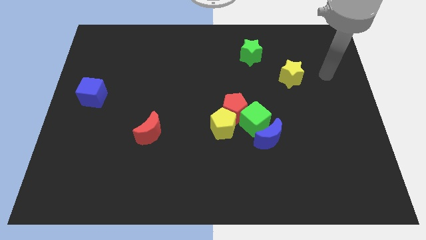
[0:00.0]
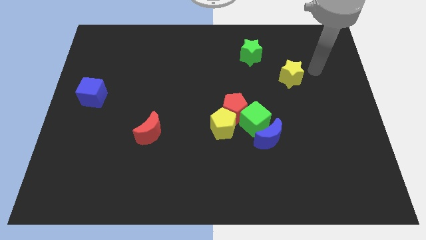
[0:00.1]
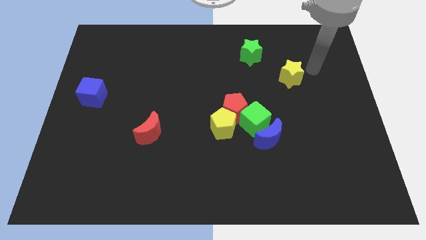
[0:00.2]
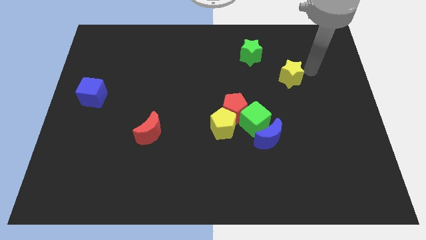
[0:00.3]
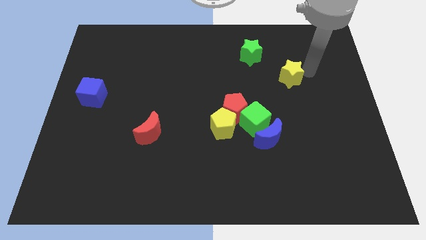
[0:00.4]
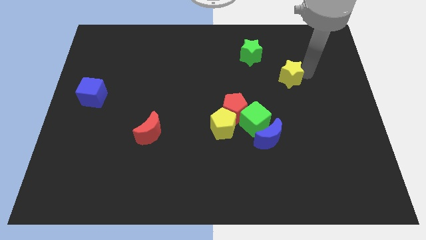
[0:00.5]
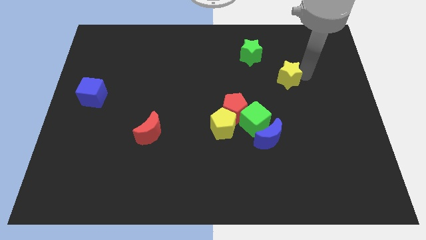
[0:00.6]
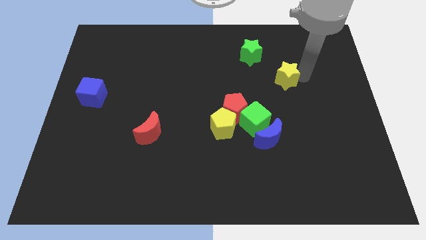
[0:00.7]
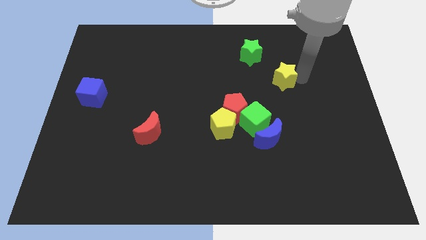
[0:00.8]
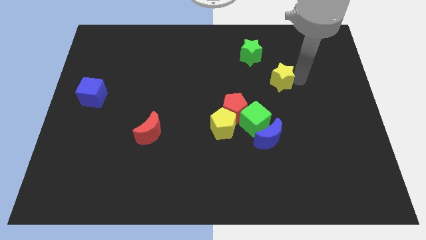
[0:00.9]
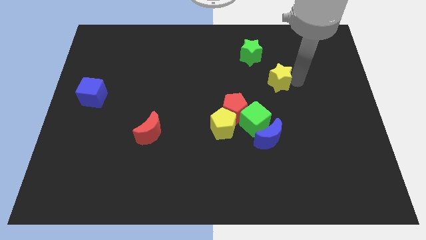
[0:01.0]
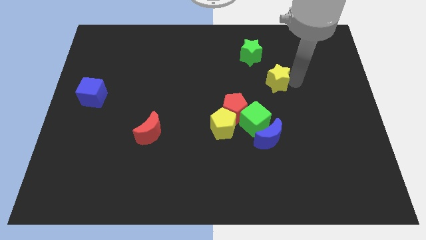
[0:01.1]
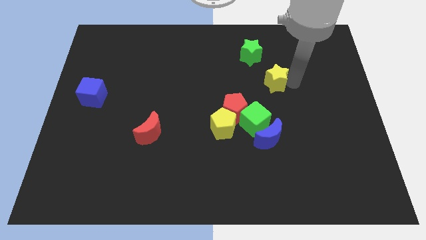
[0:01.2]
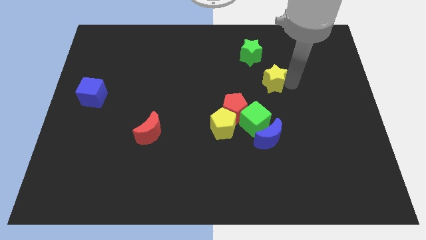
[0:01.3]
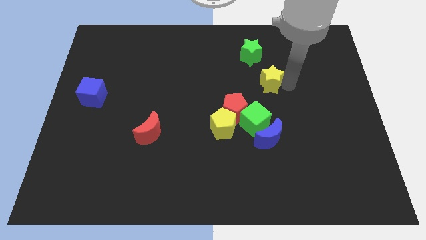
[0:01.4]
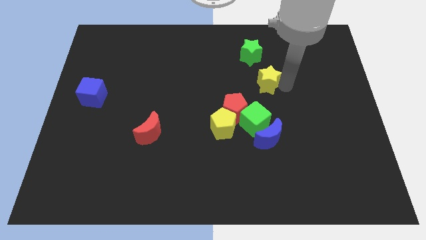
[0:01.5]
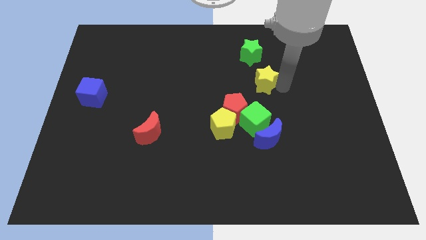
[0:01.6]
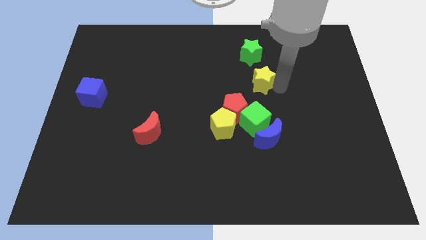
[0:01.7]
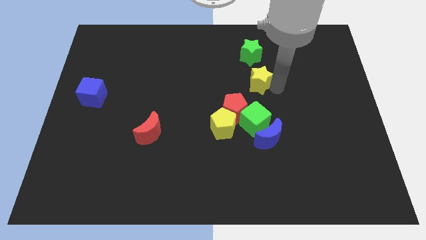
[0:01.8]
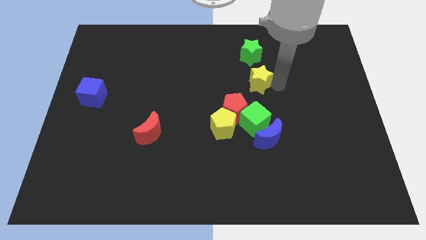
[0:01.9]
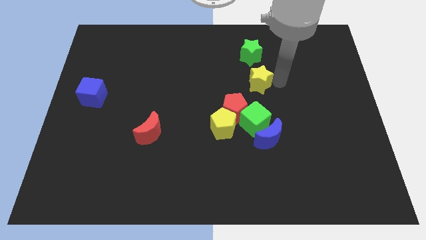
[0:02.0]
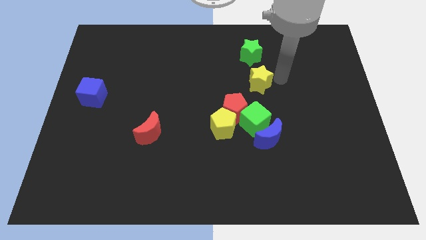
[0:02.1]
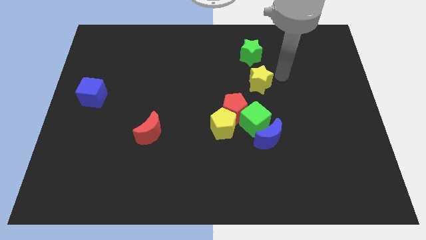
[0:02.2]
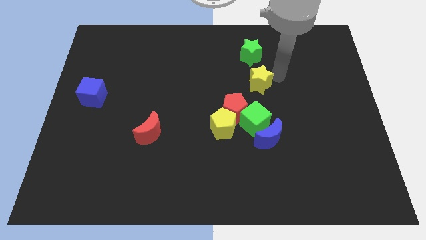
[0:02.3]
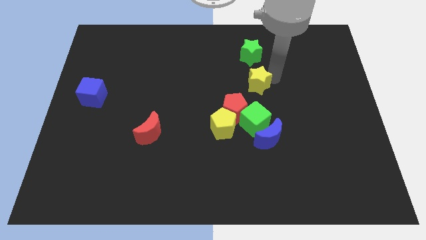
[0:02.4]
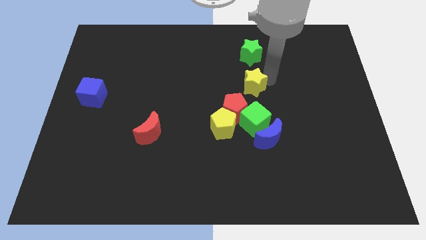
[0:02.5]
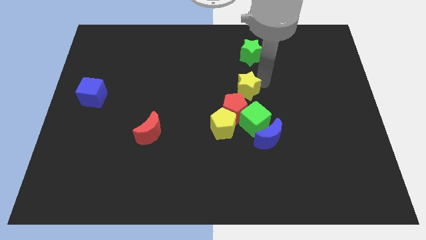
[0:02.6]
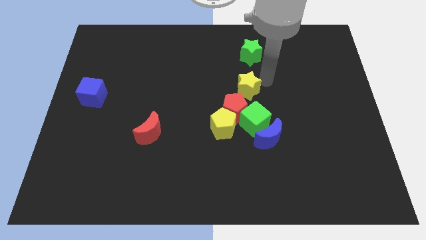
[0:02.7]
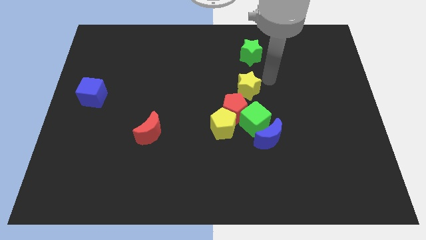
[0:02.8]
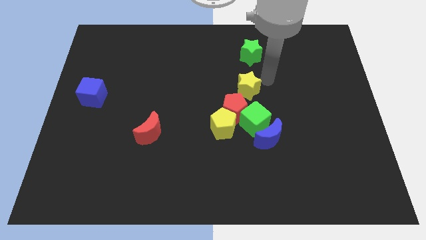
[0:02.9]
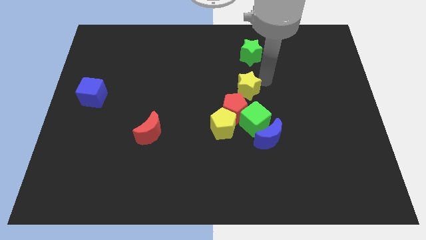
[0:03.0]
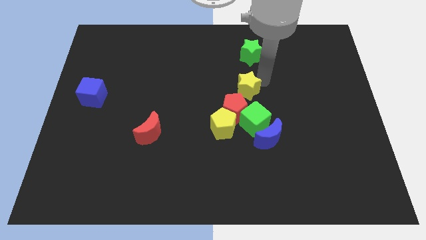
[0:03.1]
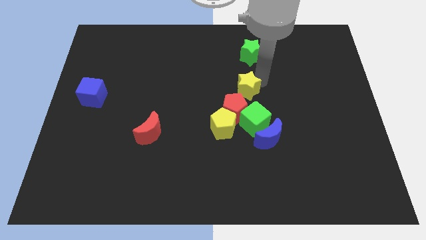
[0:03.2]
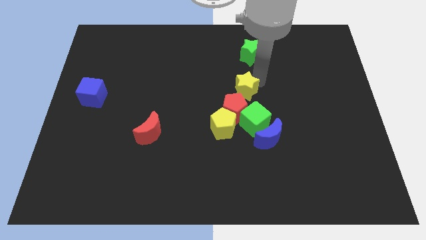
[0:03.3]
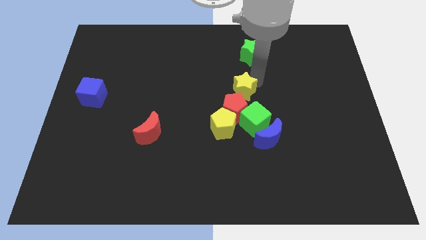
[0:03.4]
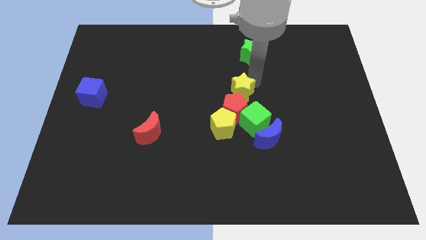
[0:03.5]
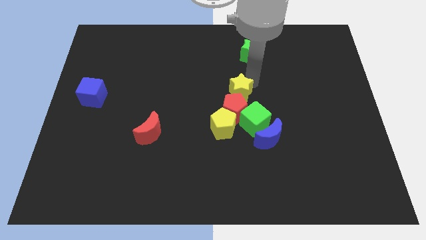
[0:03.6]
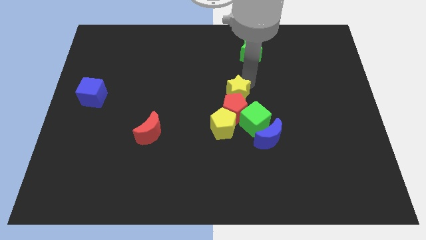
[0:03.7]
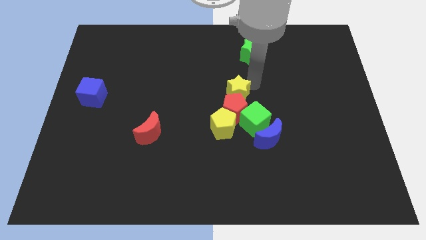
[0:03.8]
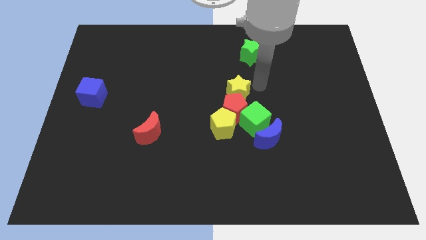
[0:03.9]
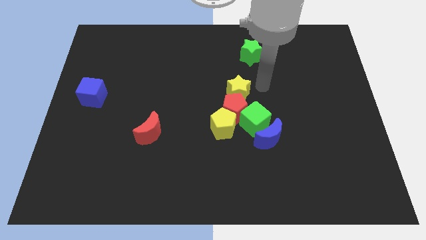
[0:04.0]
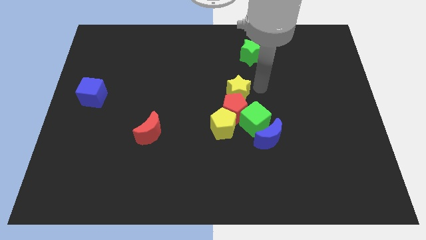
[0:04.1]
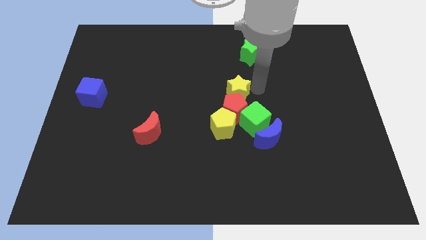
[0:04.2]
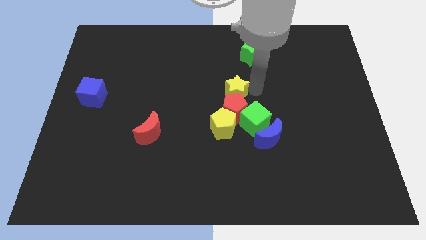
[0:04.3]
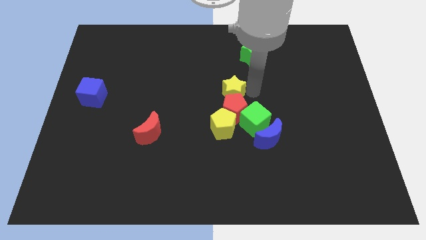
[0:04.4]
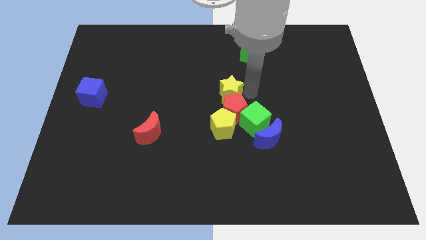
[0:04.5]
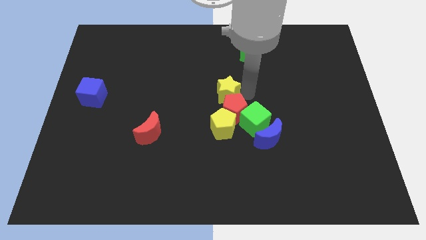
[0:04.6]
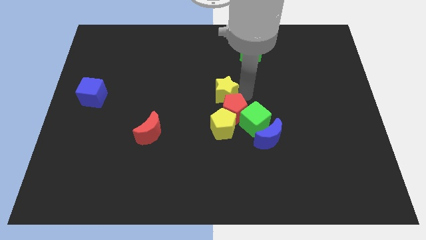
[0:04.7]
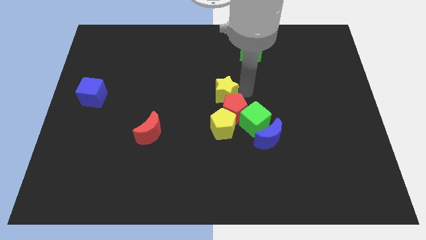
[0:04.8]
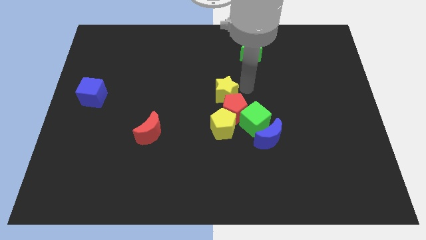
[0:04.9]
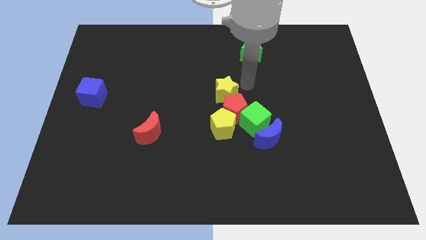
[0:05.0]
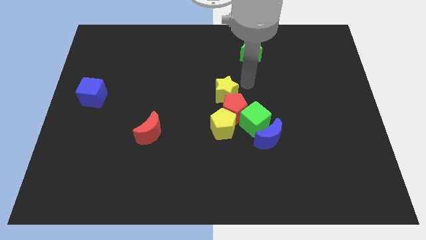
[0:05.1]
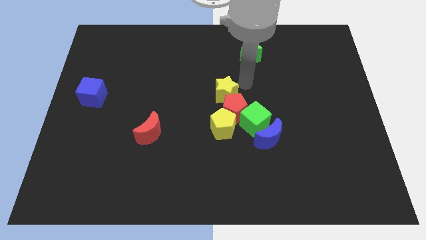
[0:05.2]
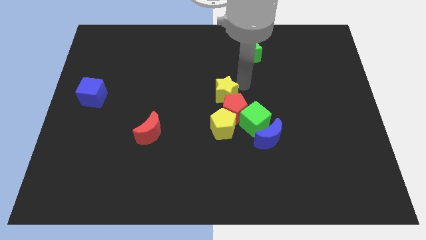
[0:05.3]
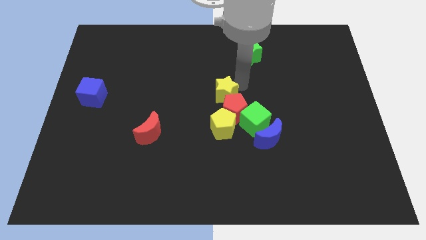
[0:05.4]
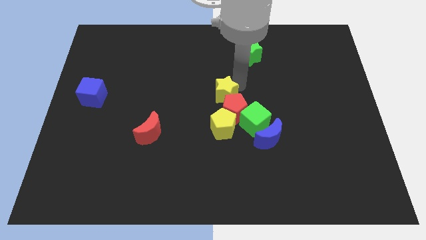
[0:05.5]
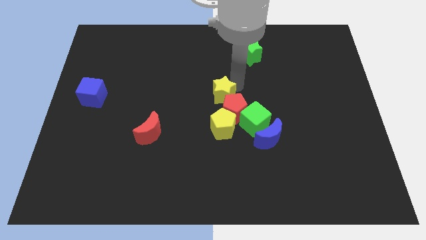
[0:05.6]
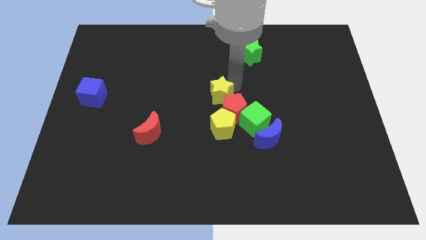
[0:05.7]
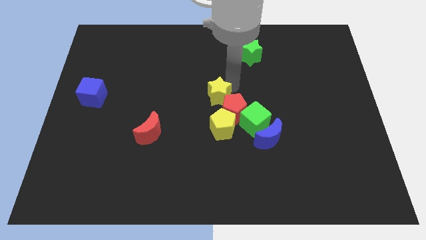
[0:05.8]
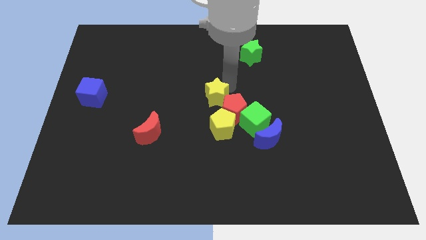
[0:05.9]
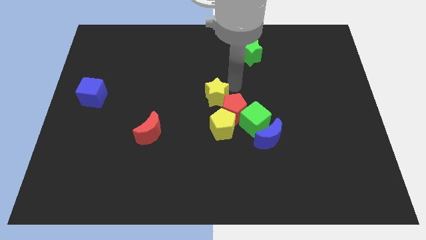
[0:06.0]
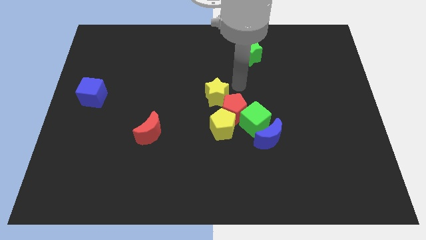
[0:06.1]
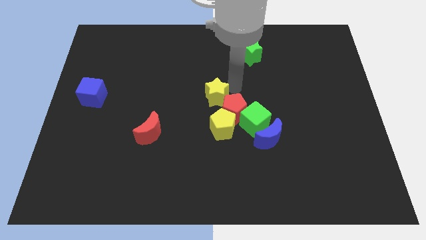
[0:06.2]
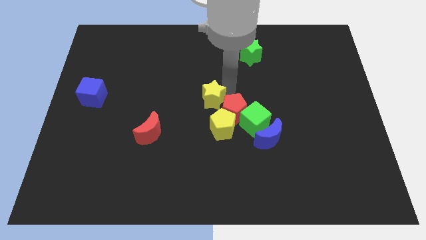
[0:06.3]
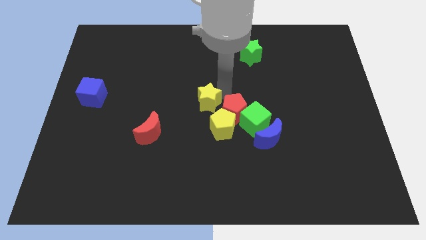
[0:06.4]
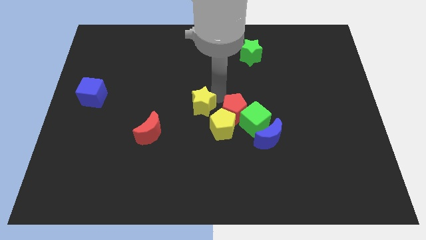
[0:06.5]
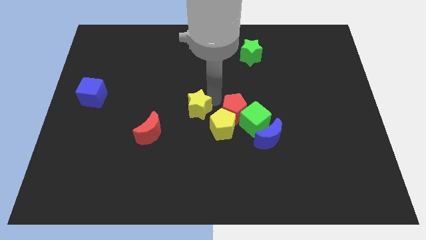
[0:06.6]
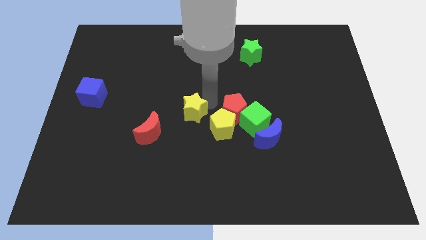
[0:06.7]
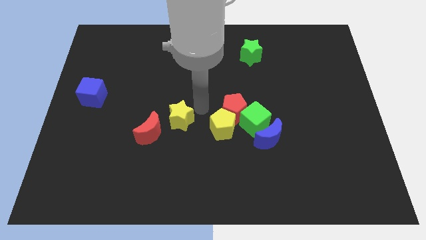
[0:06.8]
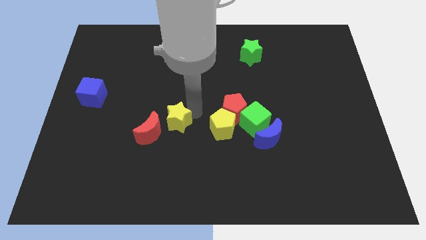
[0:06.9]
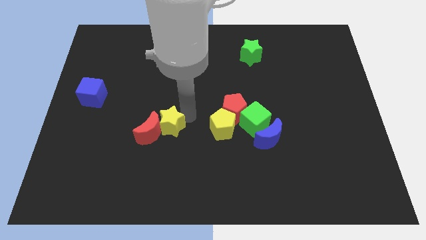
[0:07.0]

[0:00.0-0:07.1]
push the yellow star to the red moon
